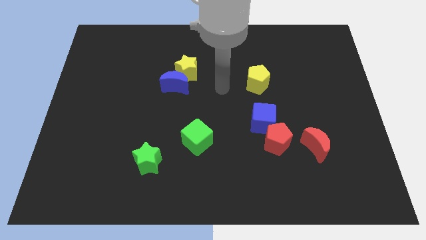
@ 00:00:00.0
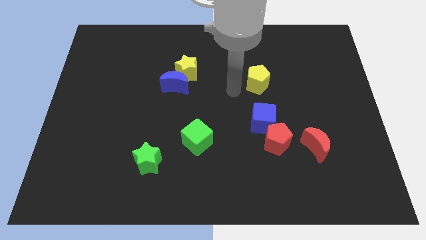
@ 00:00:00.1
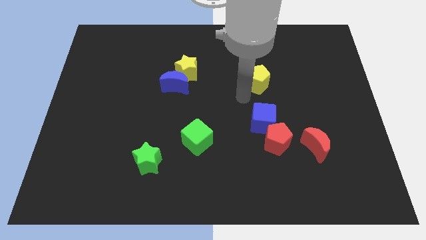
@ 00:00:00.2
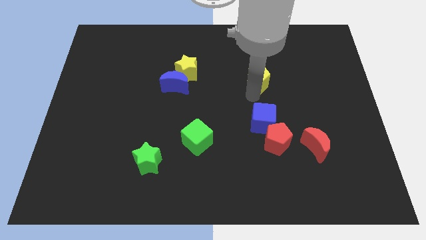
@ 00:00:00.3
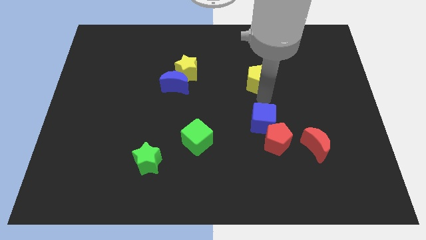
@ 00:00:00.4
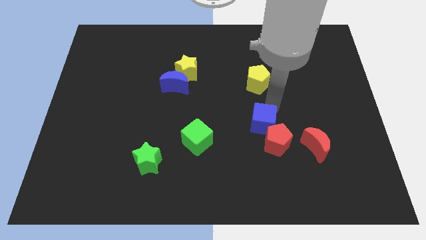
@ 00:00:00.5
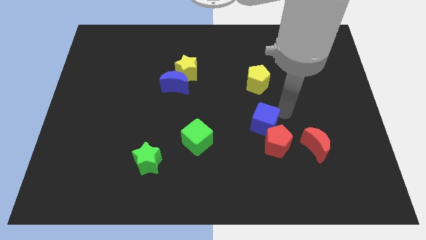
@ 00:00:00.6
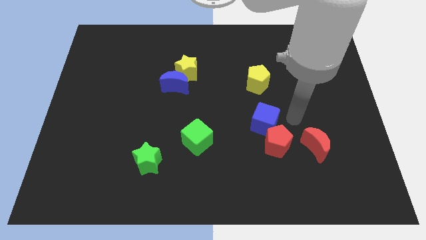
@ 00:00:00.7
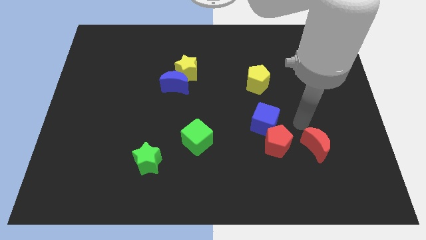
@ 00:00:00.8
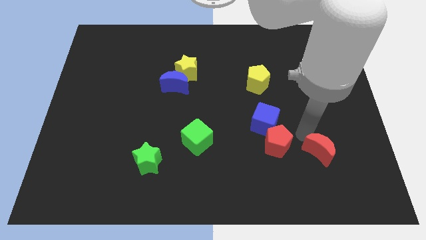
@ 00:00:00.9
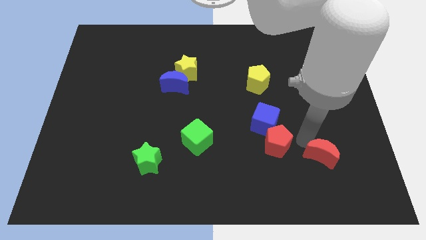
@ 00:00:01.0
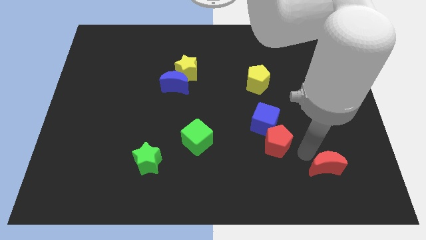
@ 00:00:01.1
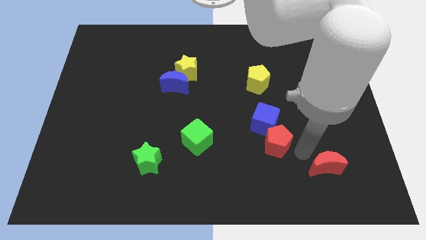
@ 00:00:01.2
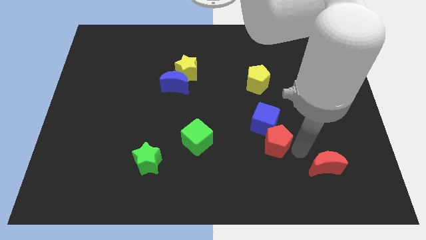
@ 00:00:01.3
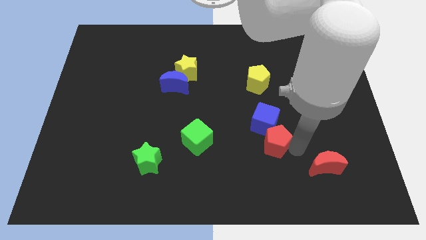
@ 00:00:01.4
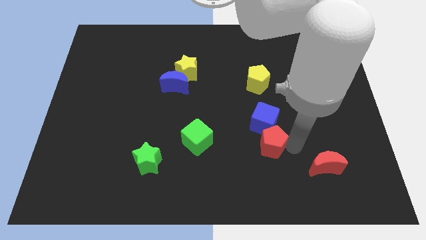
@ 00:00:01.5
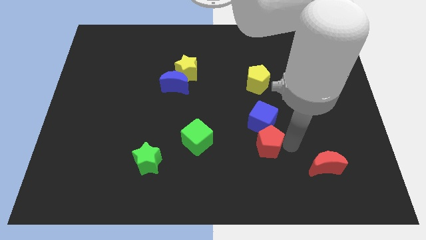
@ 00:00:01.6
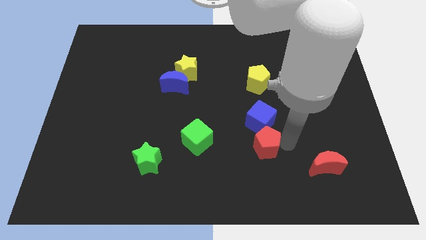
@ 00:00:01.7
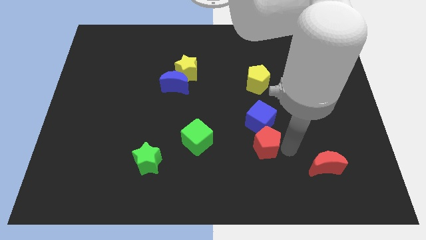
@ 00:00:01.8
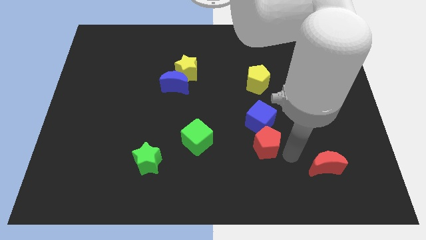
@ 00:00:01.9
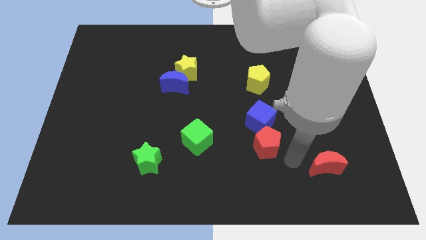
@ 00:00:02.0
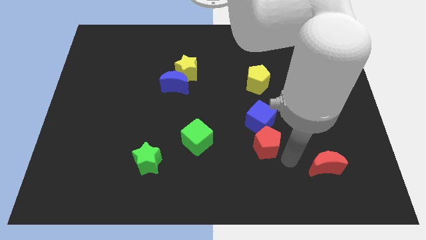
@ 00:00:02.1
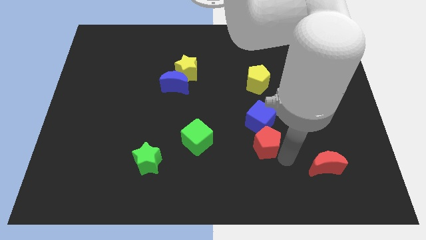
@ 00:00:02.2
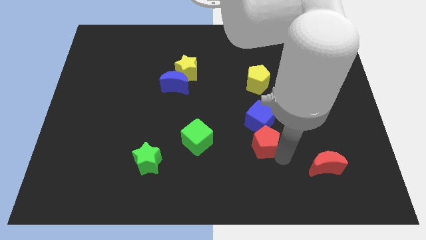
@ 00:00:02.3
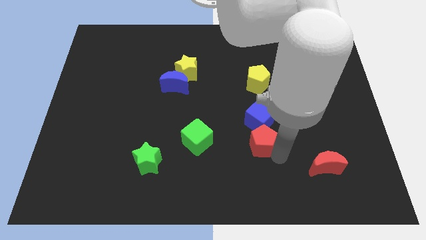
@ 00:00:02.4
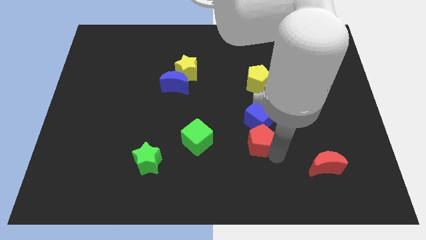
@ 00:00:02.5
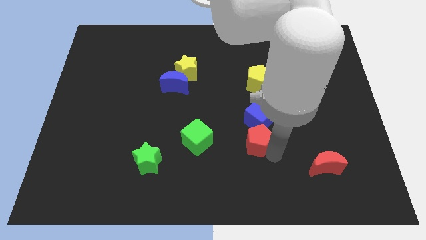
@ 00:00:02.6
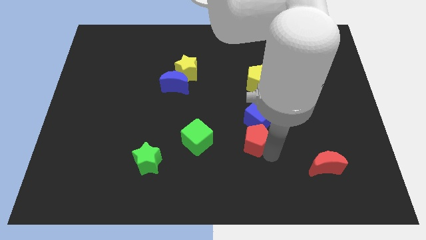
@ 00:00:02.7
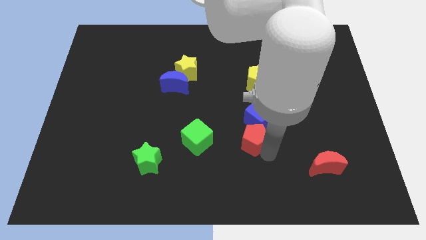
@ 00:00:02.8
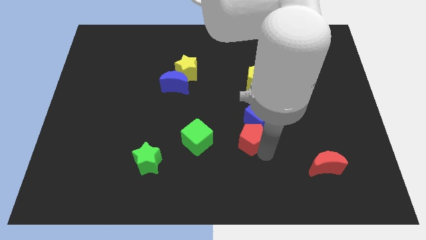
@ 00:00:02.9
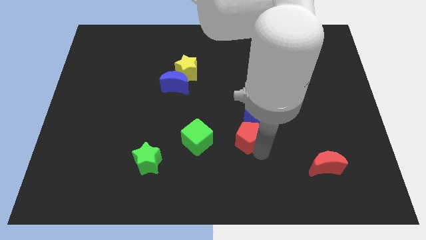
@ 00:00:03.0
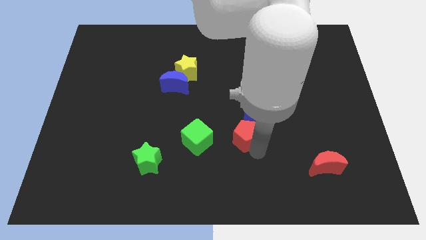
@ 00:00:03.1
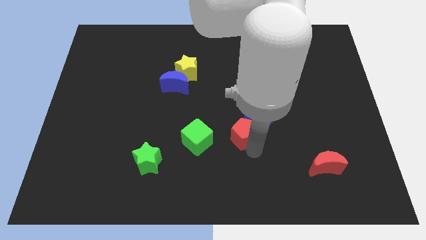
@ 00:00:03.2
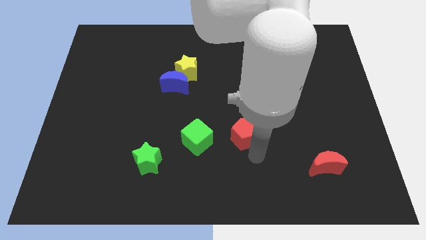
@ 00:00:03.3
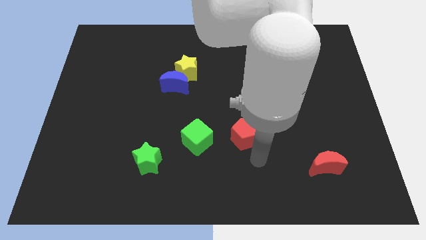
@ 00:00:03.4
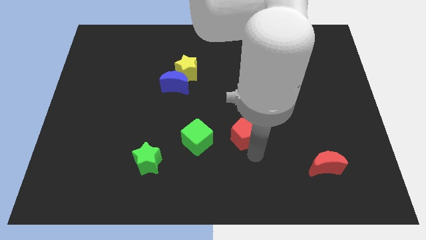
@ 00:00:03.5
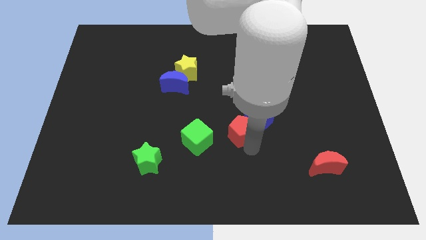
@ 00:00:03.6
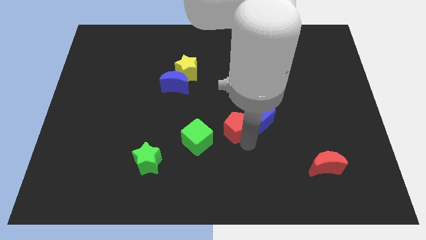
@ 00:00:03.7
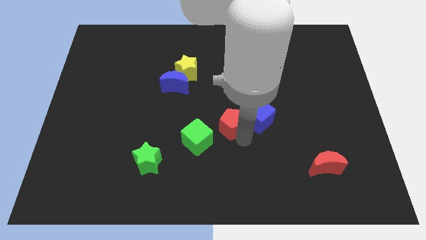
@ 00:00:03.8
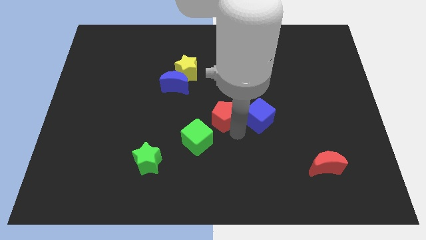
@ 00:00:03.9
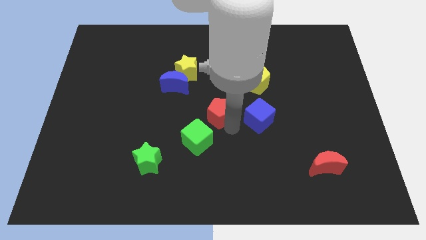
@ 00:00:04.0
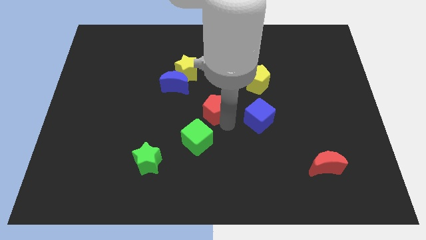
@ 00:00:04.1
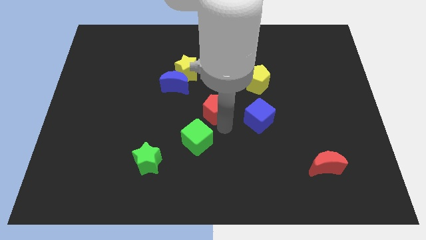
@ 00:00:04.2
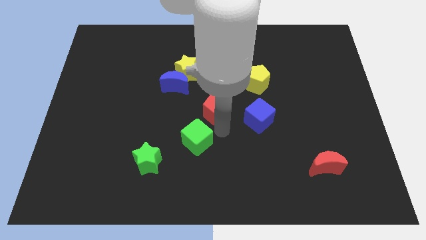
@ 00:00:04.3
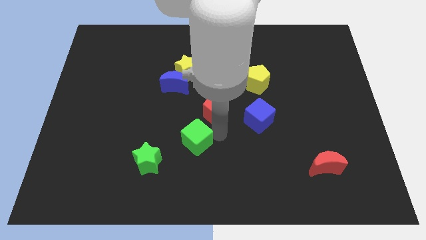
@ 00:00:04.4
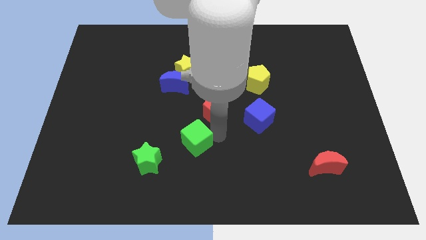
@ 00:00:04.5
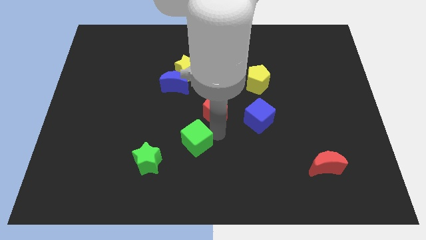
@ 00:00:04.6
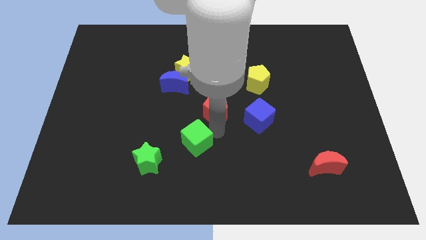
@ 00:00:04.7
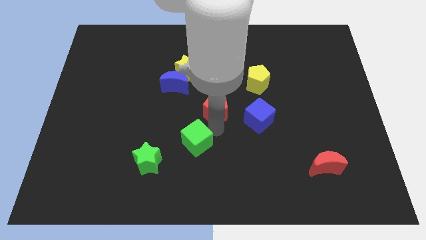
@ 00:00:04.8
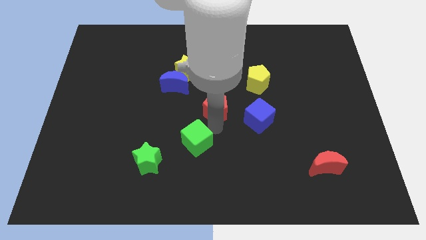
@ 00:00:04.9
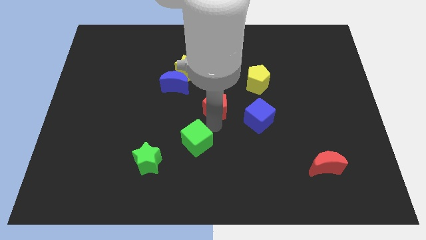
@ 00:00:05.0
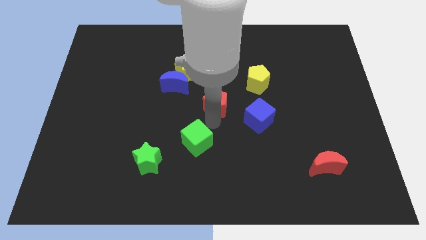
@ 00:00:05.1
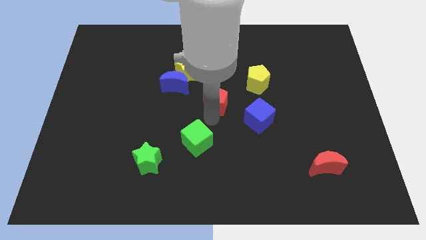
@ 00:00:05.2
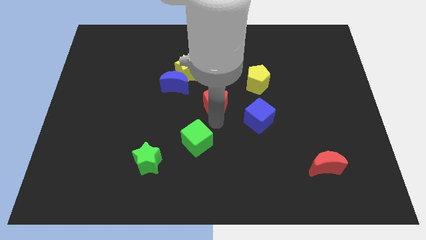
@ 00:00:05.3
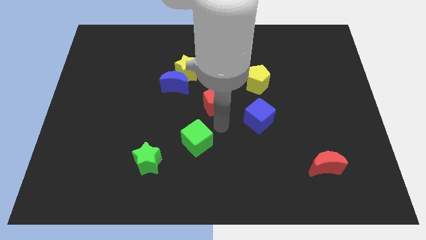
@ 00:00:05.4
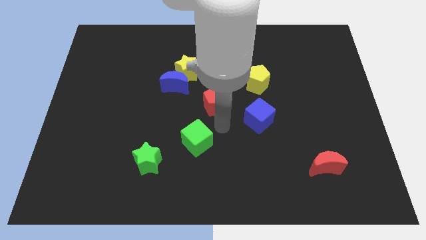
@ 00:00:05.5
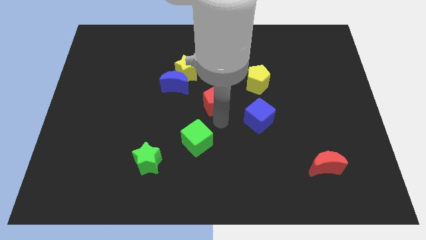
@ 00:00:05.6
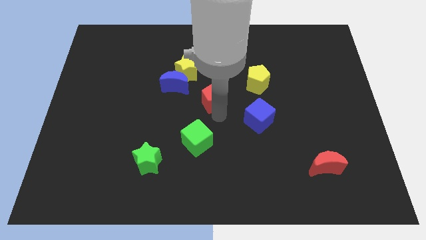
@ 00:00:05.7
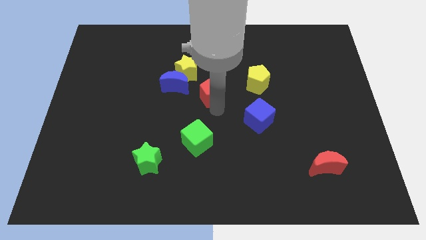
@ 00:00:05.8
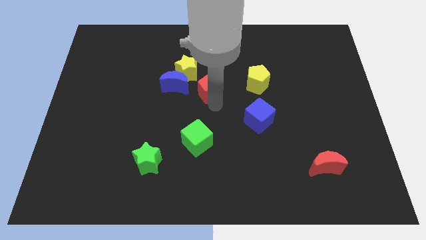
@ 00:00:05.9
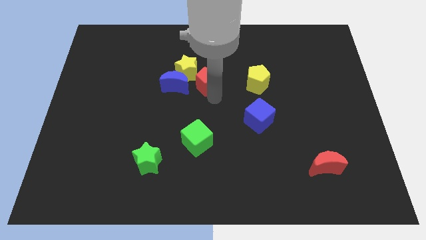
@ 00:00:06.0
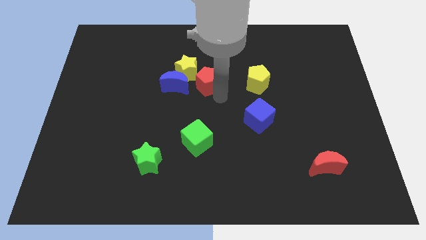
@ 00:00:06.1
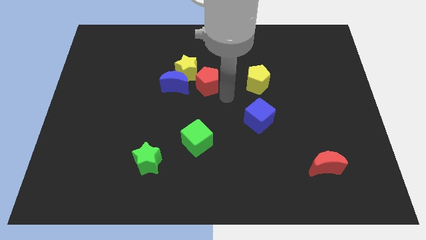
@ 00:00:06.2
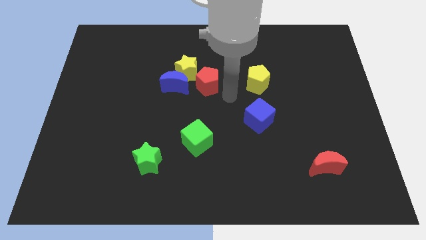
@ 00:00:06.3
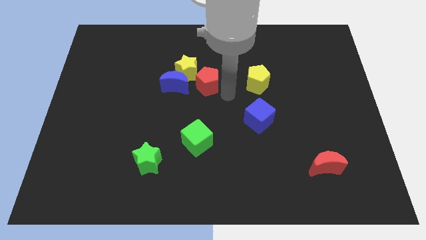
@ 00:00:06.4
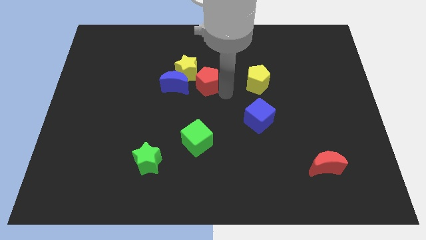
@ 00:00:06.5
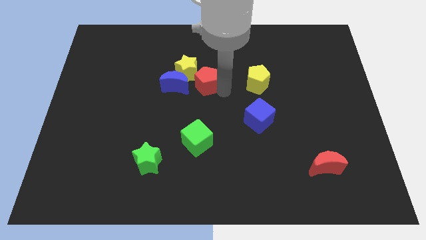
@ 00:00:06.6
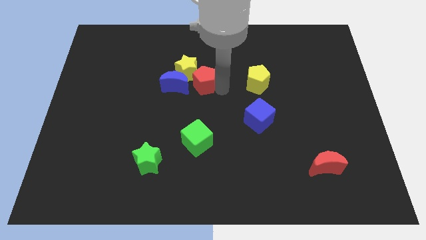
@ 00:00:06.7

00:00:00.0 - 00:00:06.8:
move the red pentagon next to the yellow star
